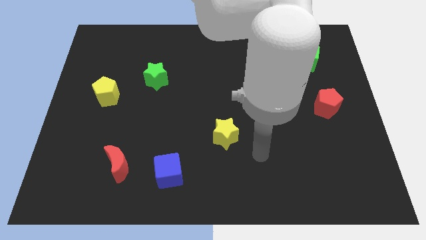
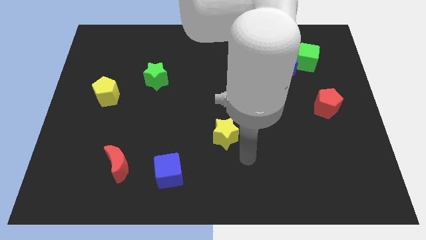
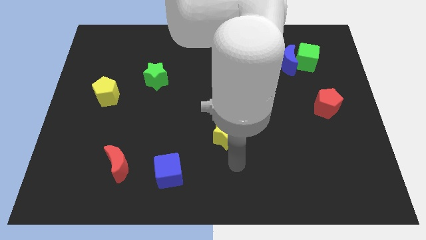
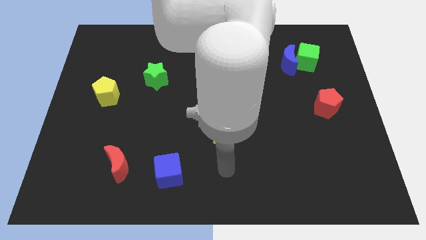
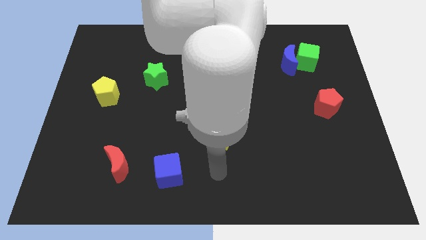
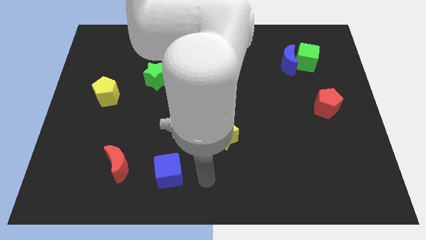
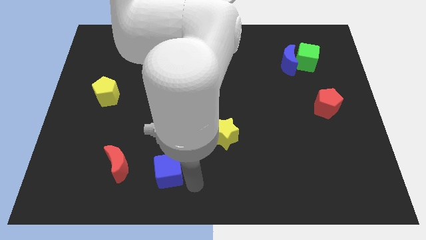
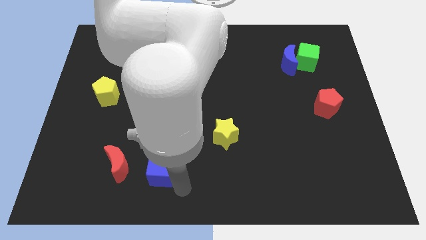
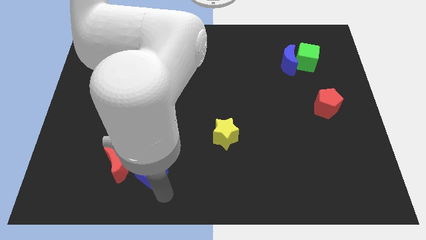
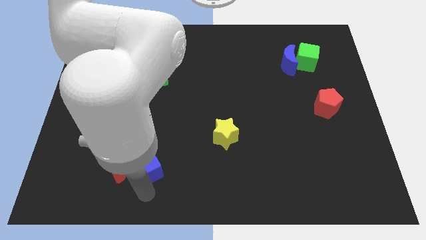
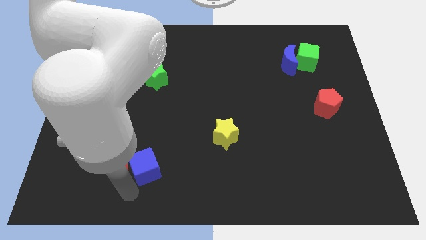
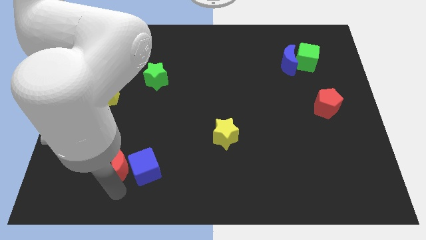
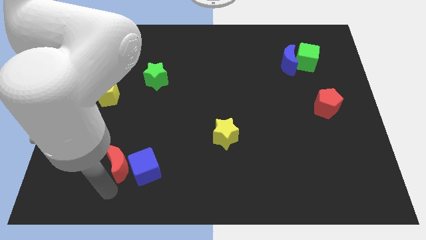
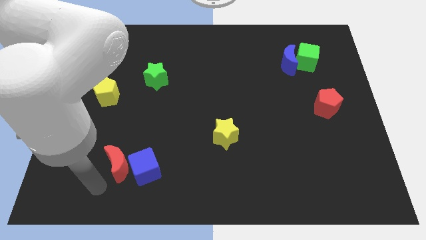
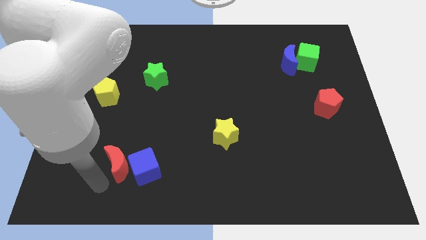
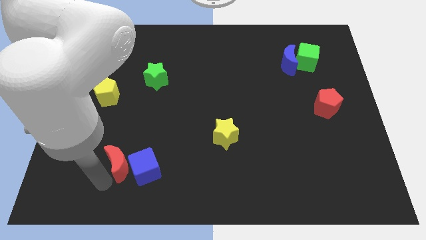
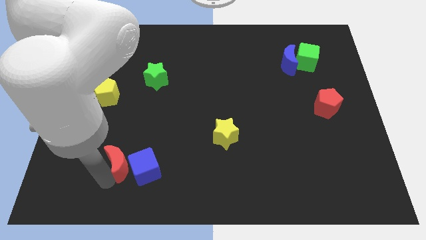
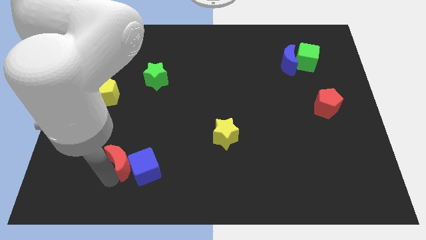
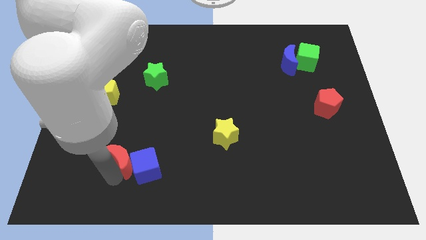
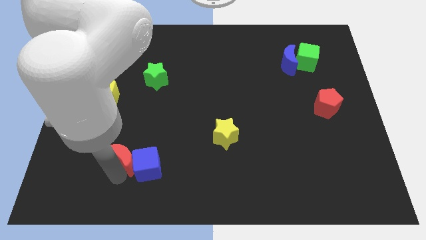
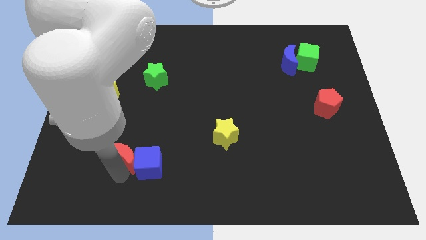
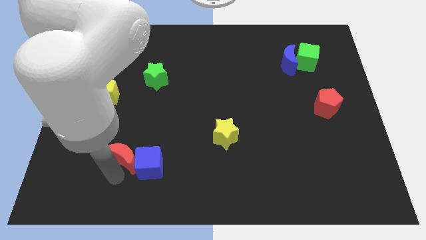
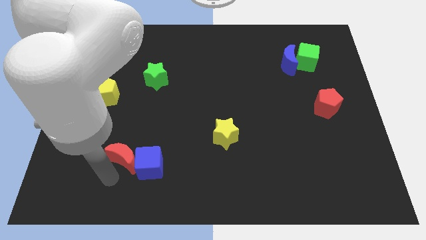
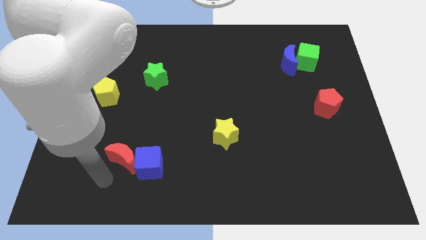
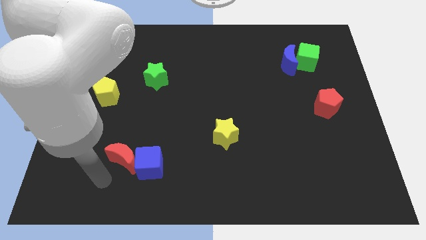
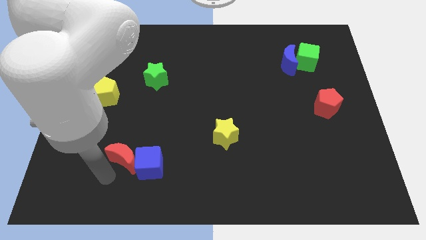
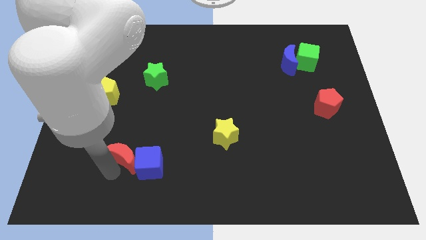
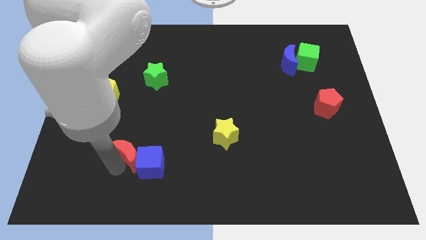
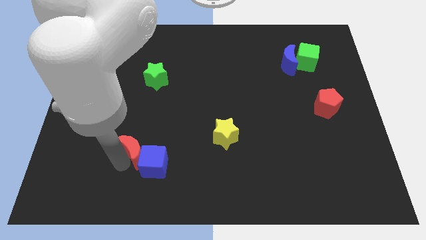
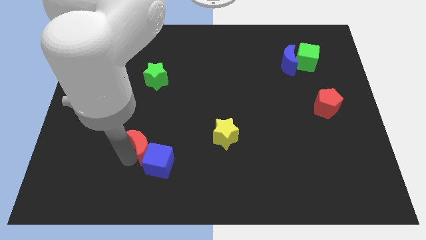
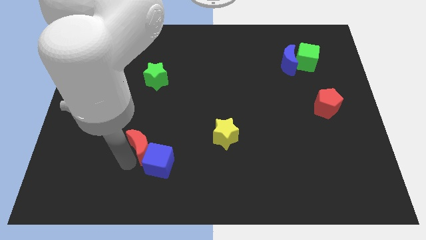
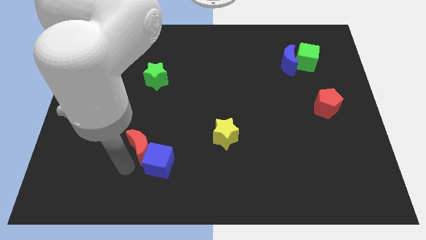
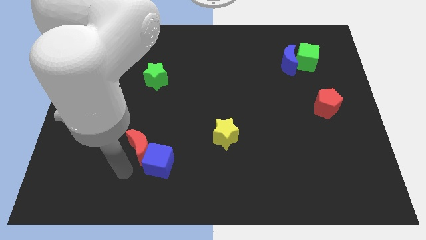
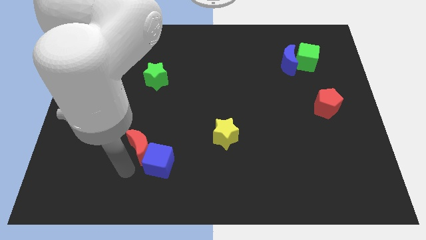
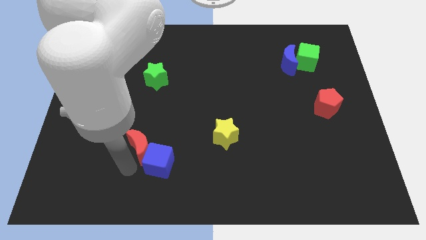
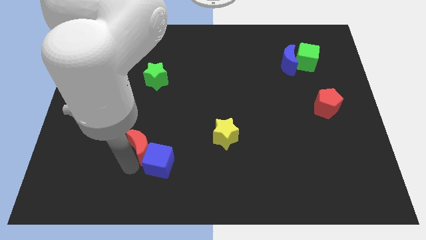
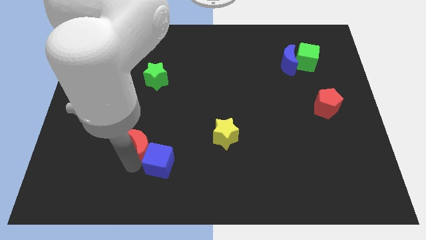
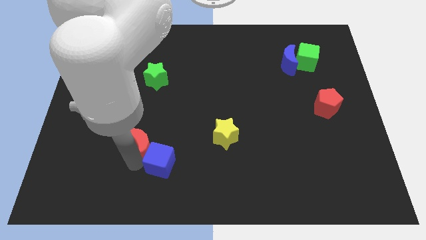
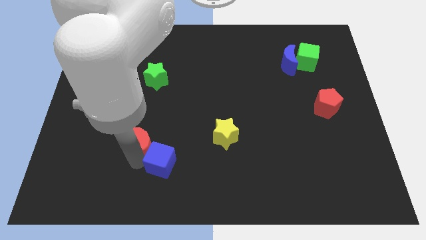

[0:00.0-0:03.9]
push the red moon diagonally up and right a little

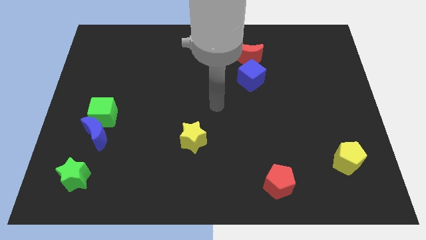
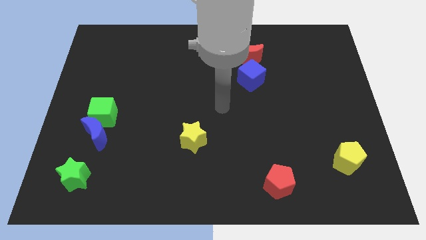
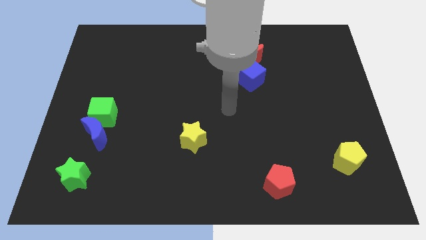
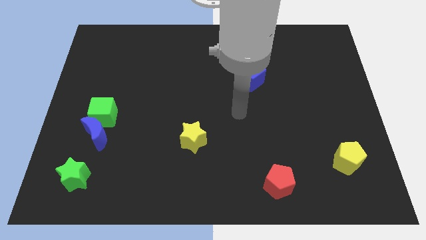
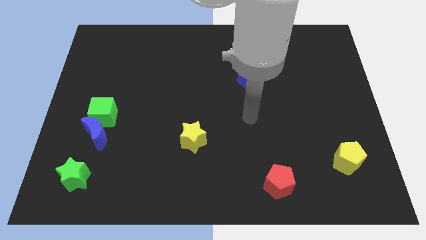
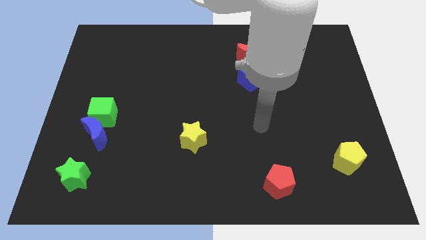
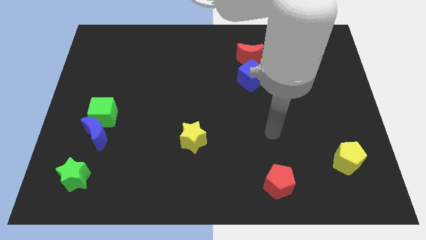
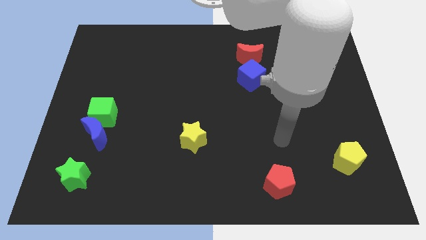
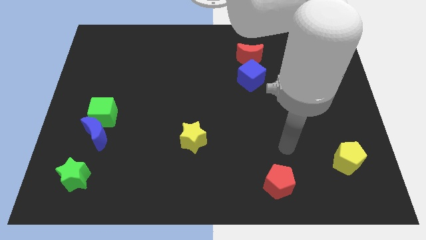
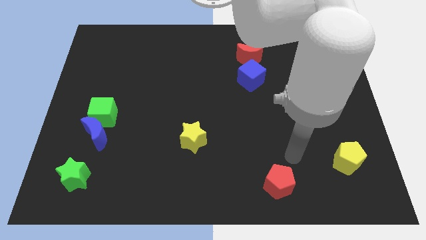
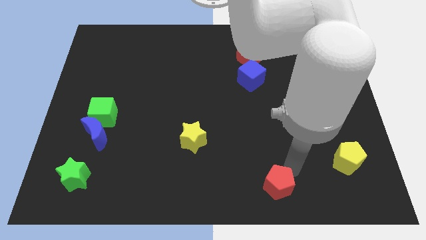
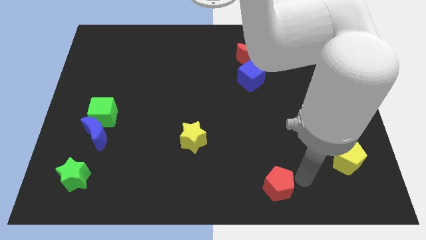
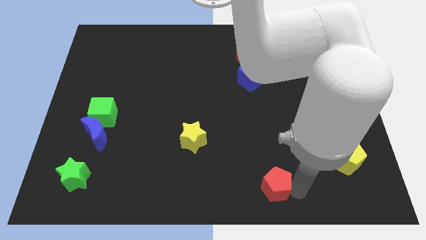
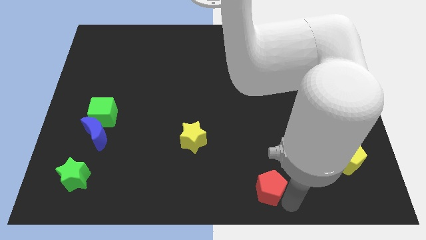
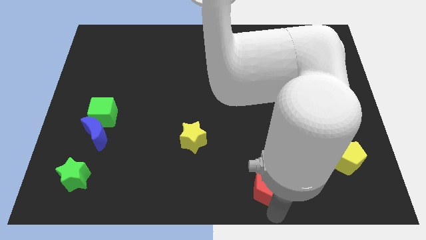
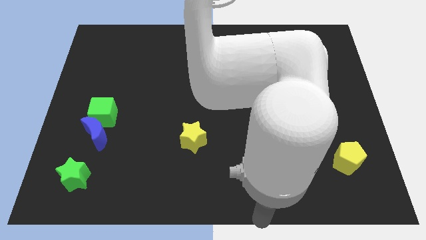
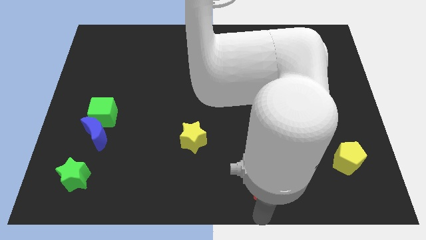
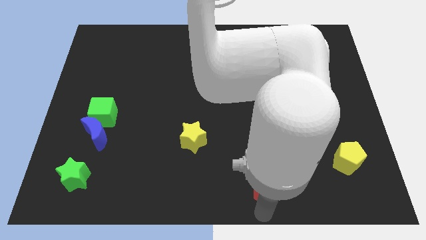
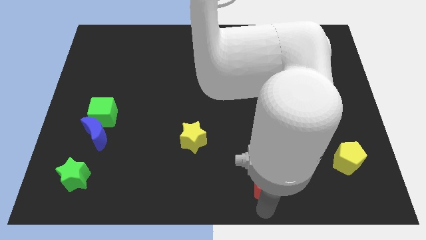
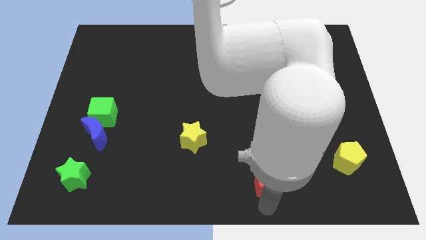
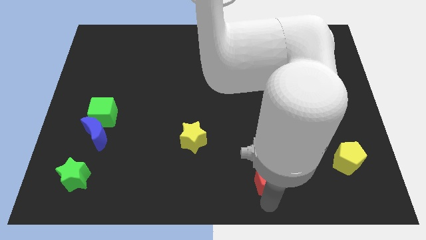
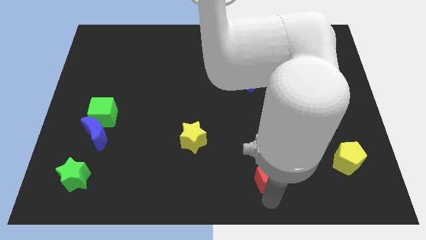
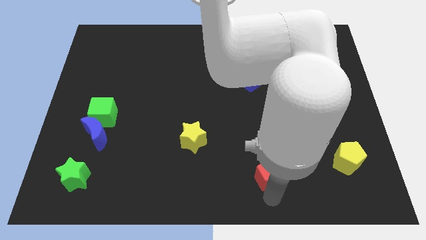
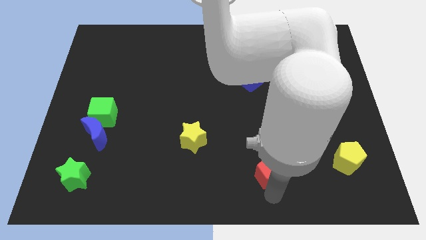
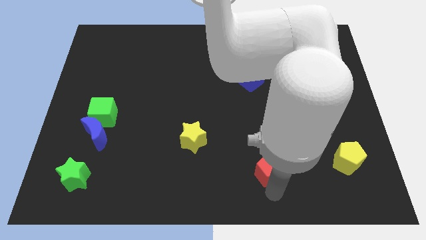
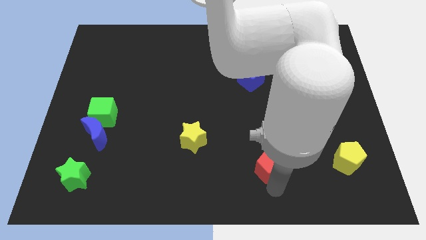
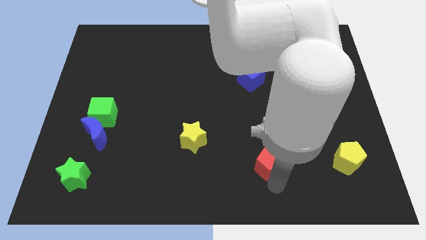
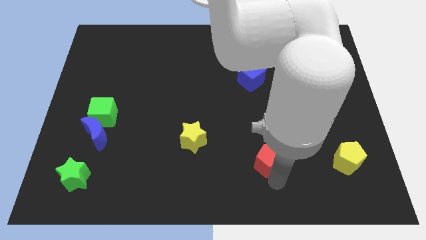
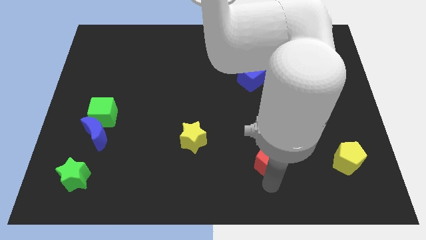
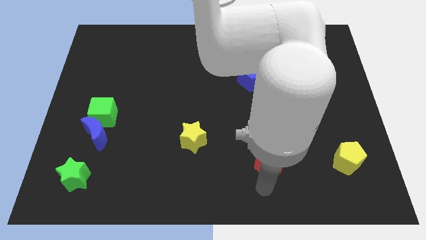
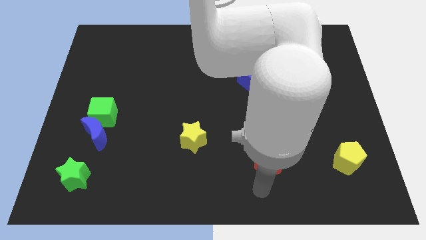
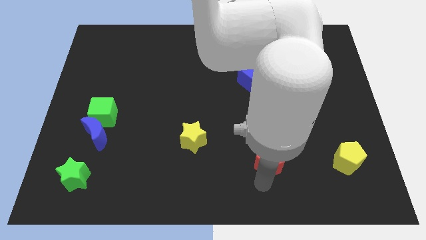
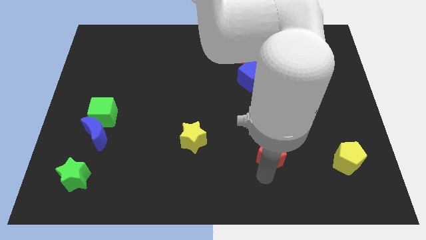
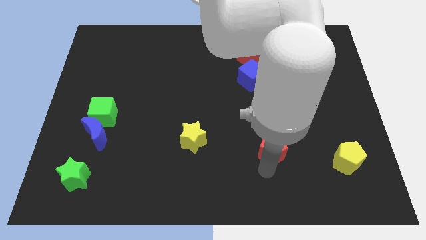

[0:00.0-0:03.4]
push the red pentagon up slightly

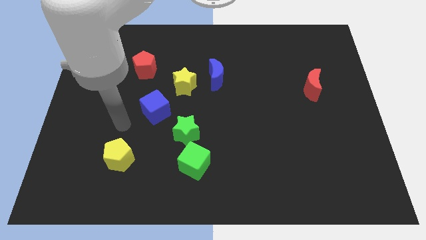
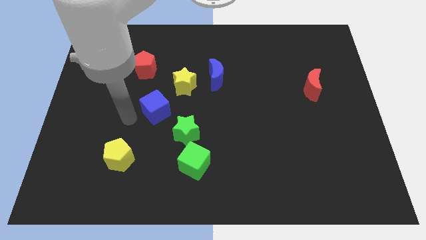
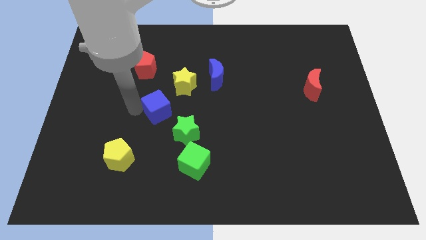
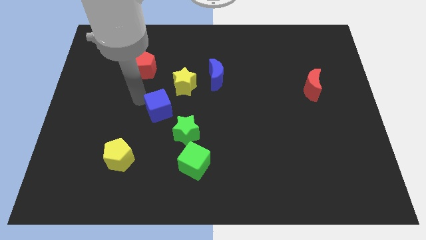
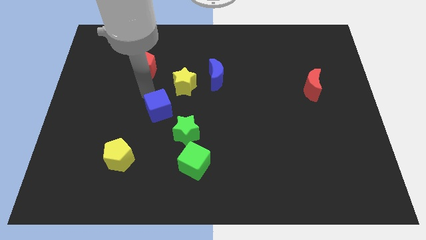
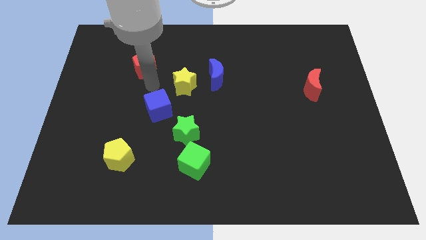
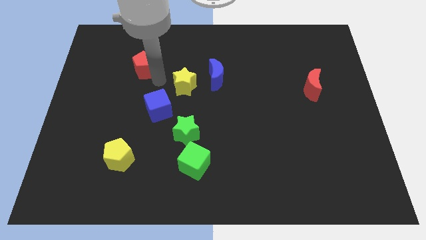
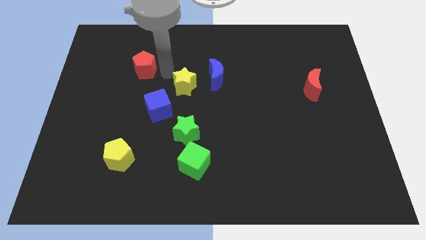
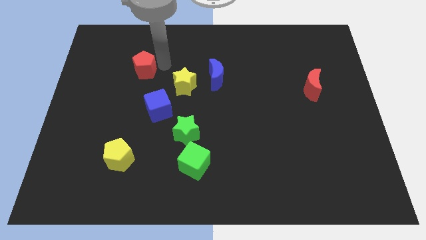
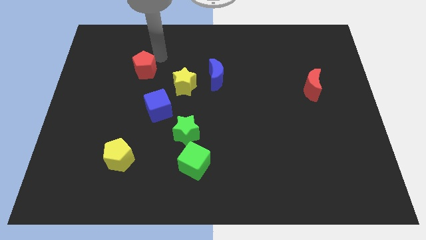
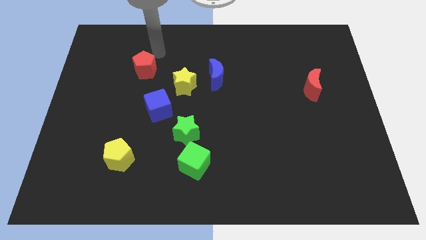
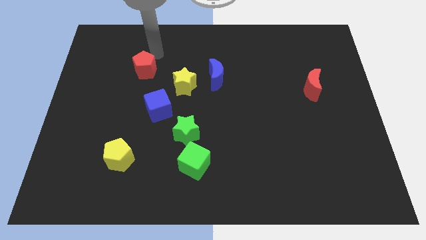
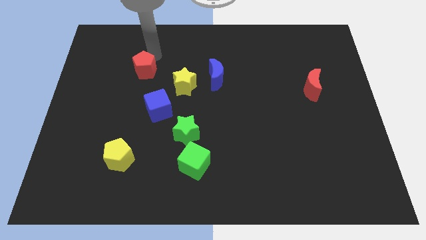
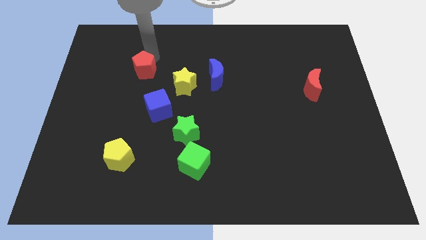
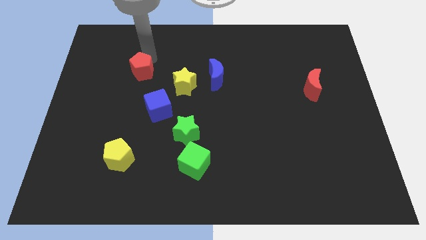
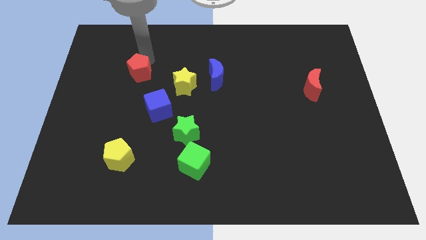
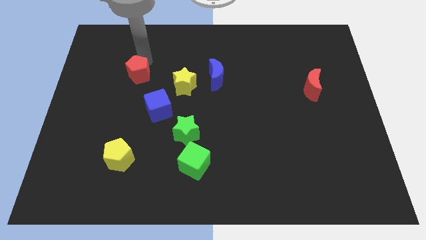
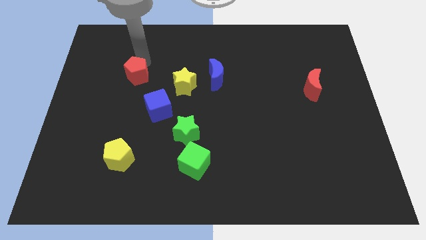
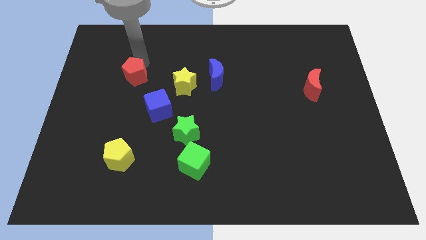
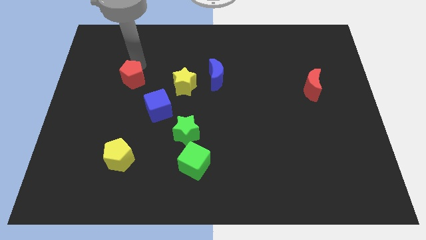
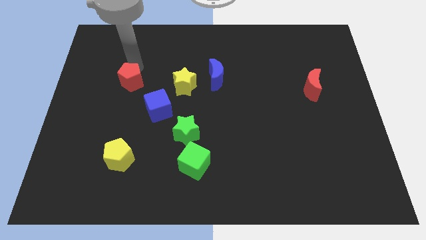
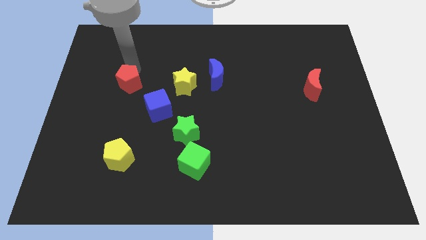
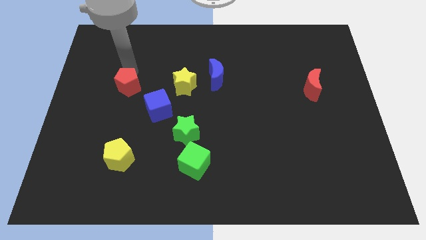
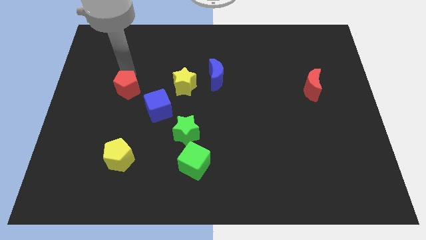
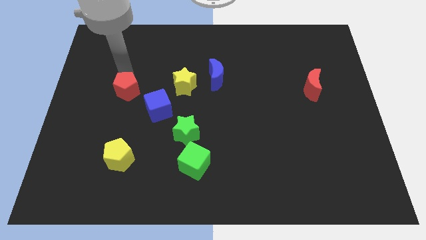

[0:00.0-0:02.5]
slightly slide the red pentagon down
